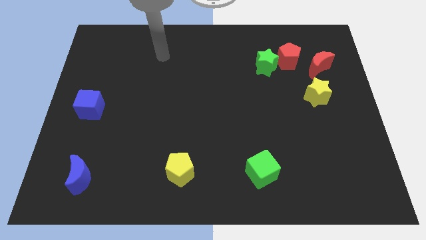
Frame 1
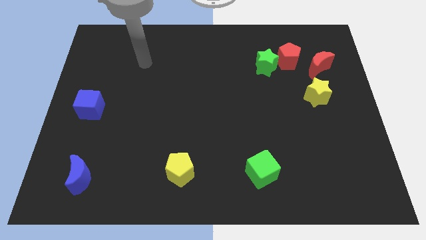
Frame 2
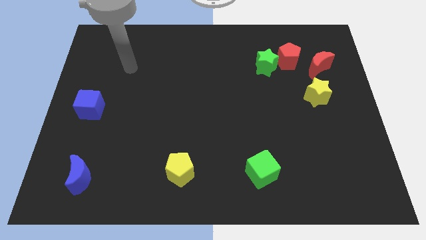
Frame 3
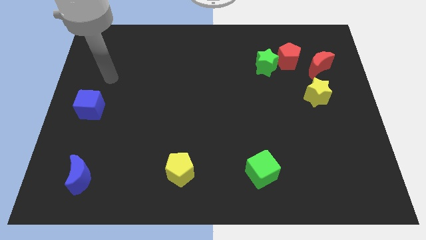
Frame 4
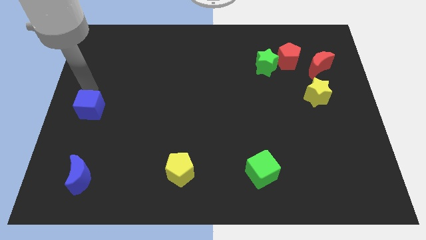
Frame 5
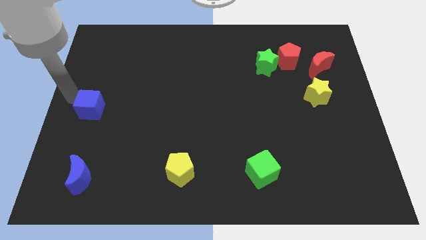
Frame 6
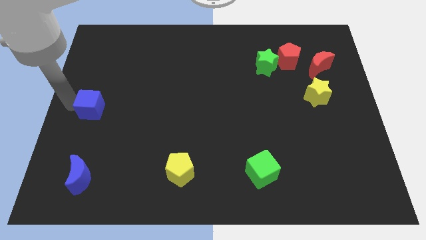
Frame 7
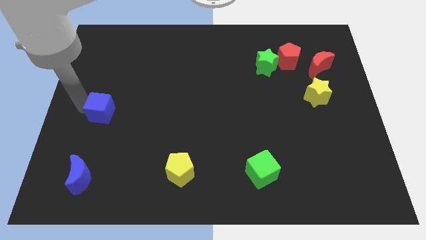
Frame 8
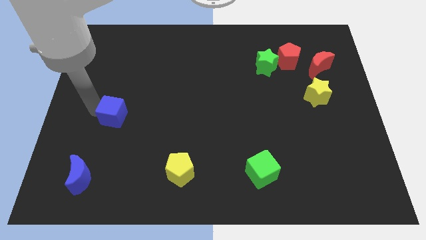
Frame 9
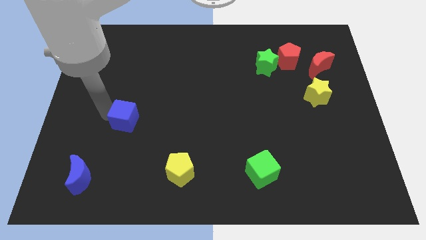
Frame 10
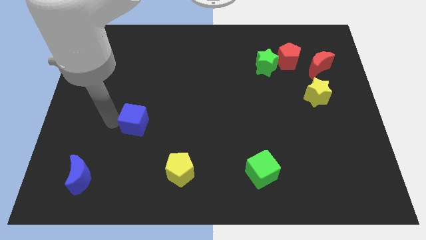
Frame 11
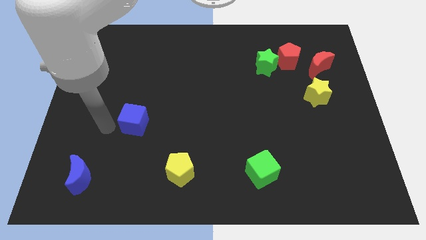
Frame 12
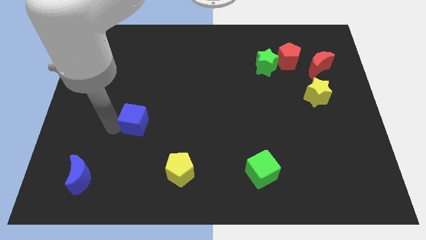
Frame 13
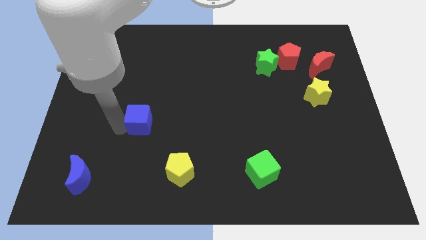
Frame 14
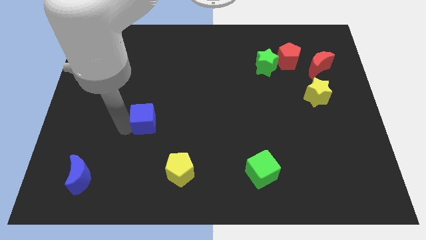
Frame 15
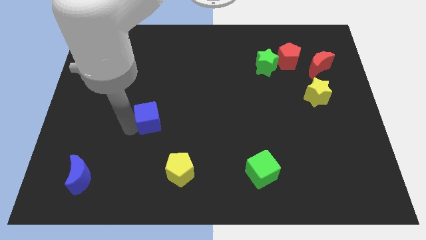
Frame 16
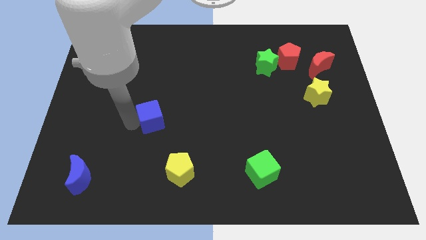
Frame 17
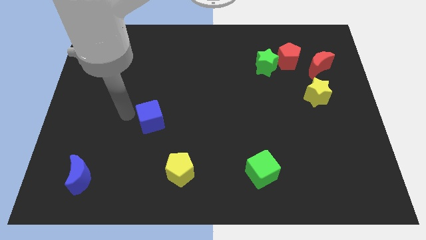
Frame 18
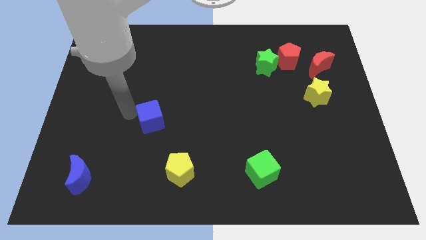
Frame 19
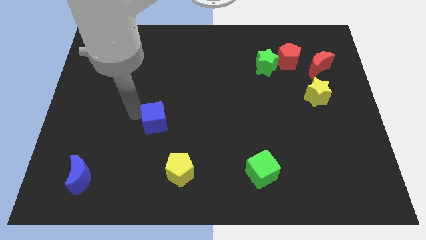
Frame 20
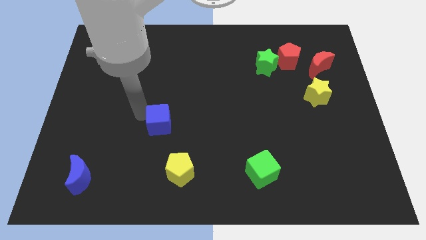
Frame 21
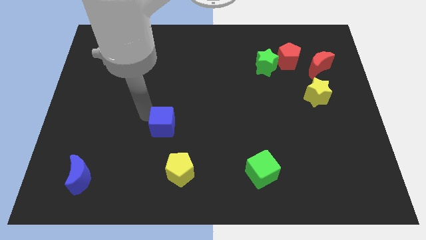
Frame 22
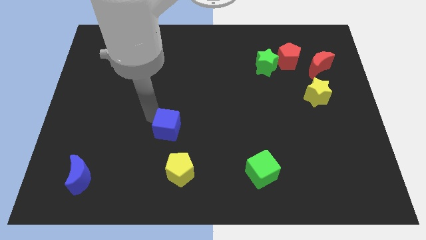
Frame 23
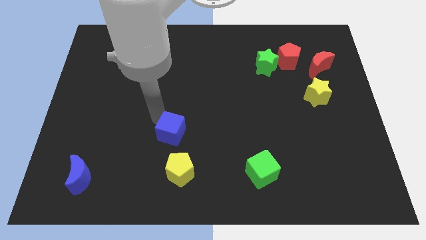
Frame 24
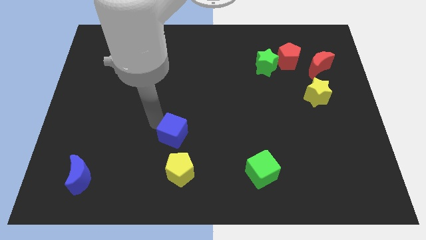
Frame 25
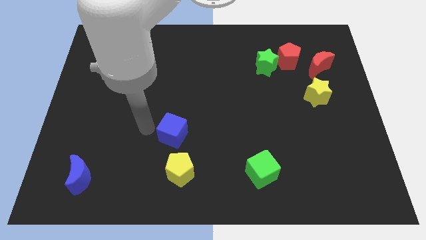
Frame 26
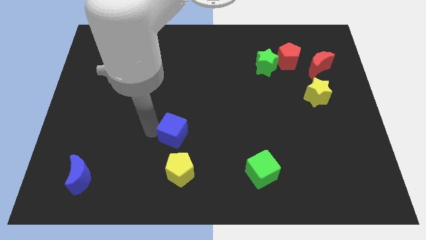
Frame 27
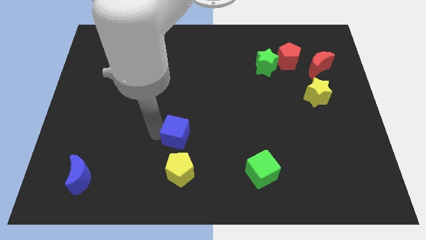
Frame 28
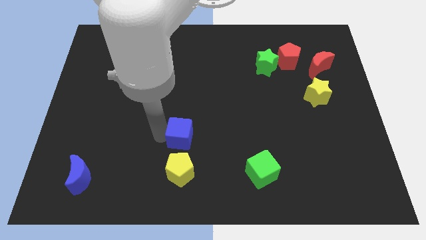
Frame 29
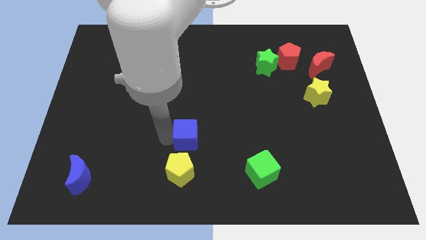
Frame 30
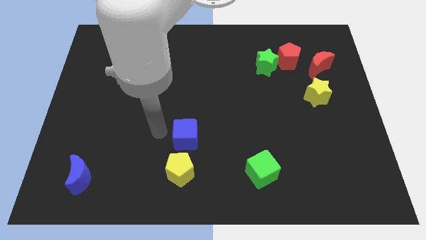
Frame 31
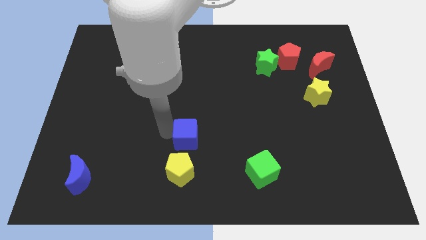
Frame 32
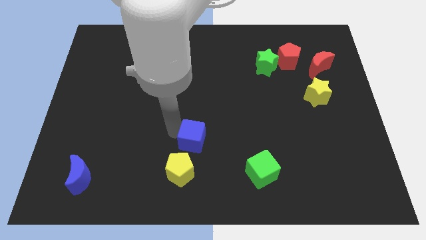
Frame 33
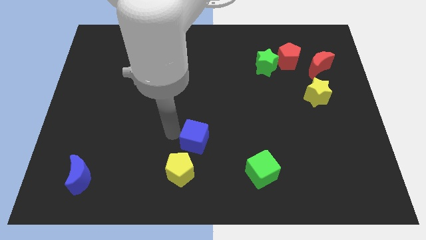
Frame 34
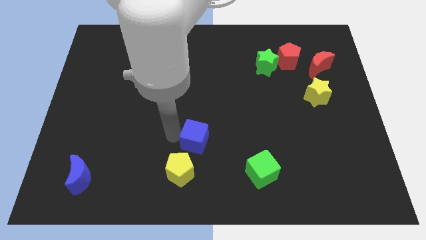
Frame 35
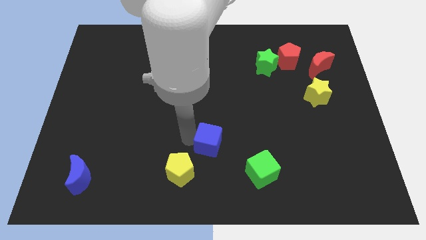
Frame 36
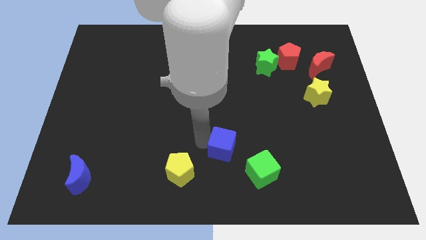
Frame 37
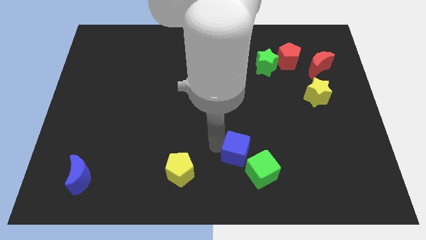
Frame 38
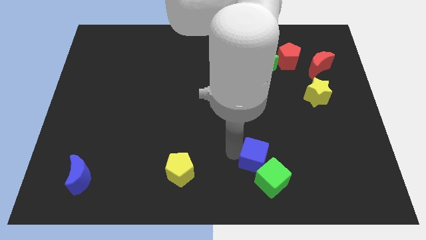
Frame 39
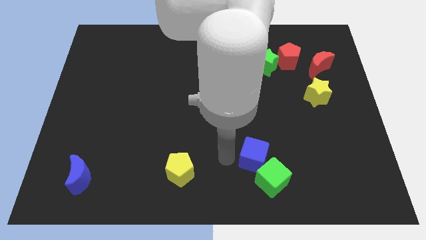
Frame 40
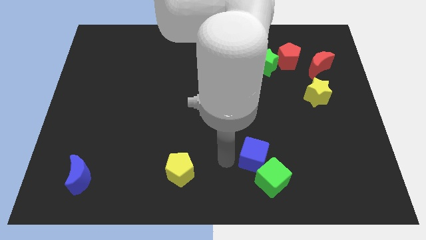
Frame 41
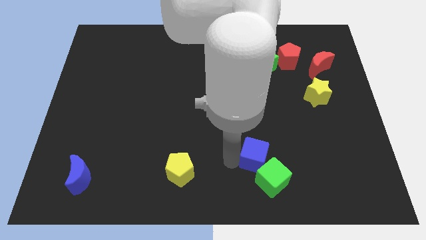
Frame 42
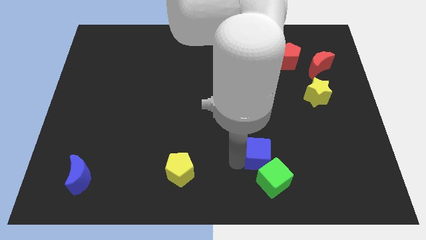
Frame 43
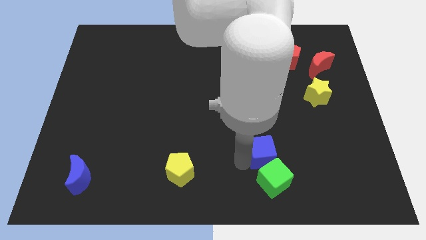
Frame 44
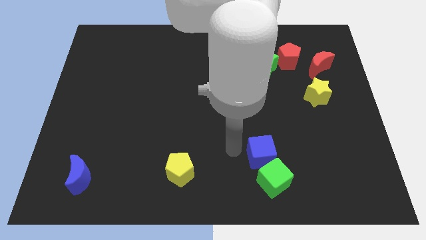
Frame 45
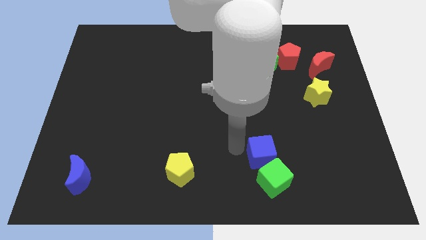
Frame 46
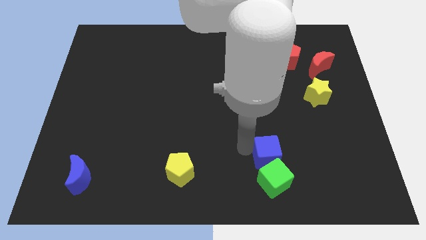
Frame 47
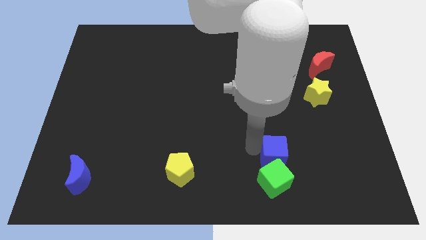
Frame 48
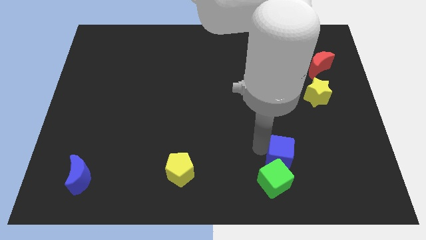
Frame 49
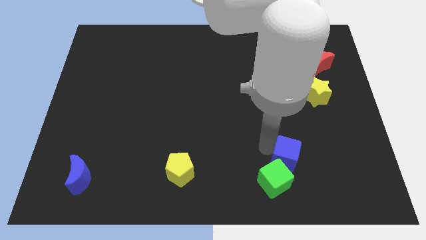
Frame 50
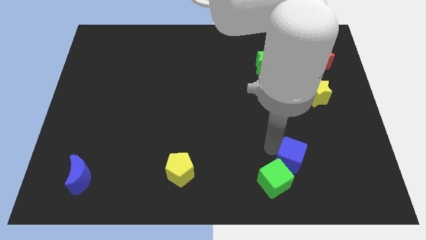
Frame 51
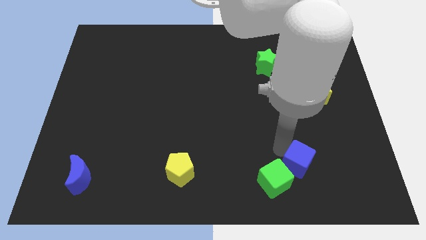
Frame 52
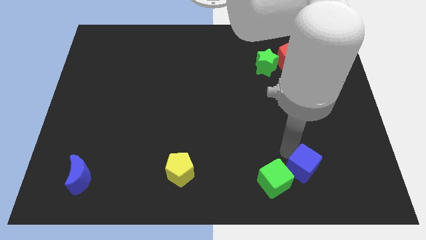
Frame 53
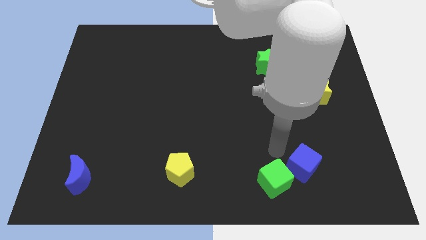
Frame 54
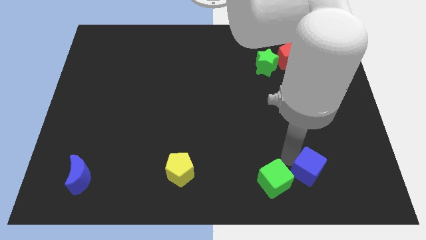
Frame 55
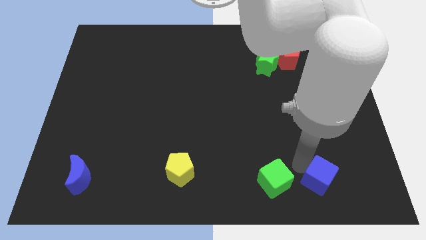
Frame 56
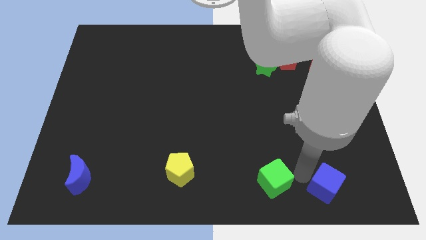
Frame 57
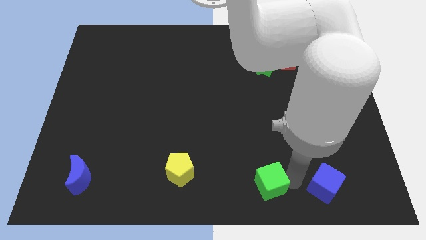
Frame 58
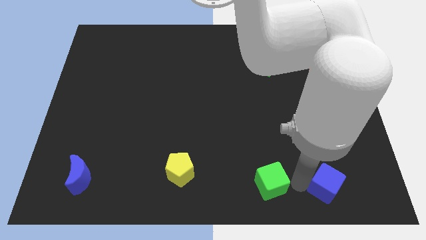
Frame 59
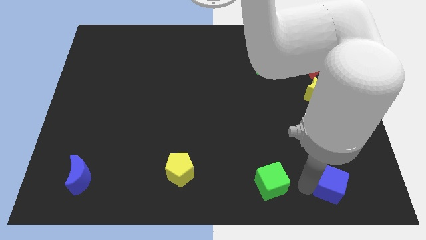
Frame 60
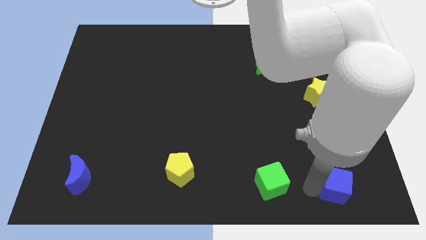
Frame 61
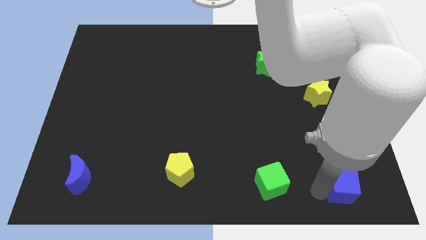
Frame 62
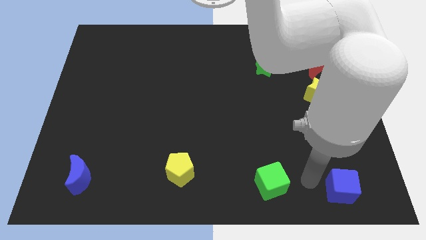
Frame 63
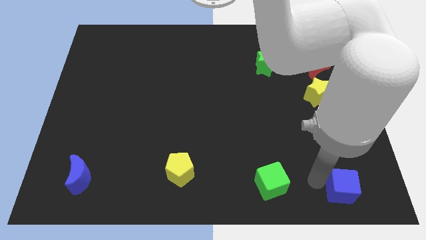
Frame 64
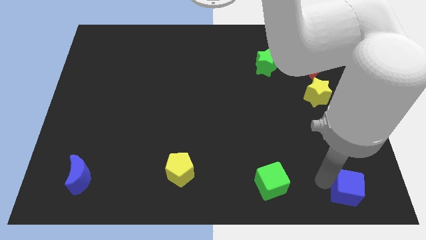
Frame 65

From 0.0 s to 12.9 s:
put the blue cube to the bottom right of the board

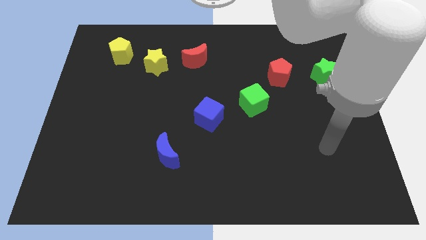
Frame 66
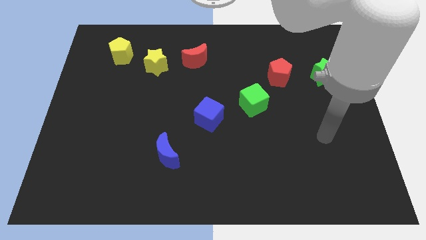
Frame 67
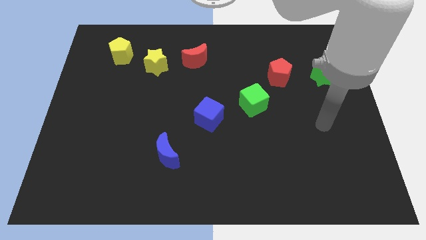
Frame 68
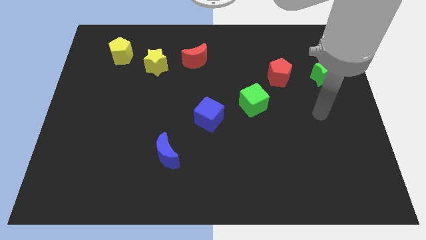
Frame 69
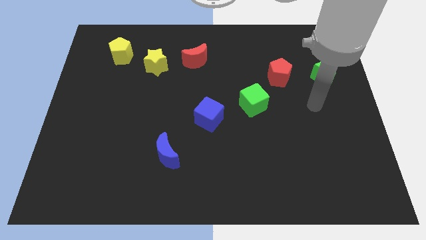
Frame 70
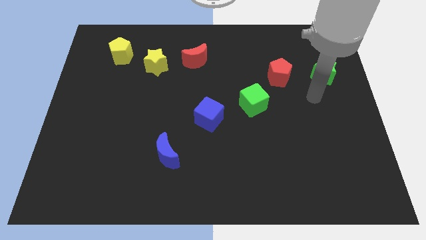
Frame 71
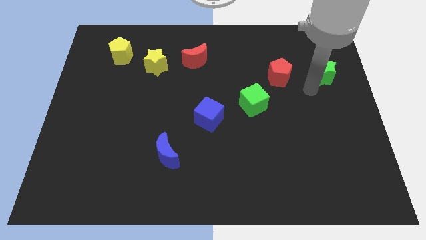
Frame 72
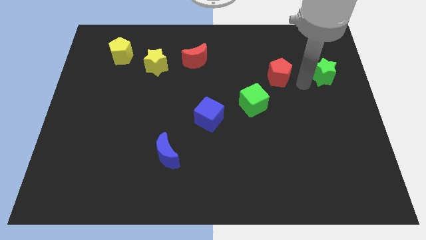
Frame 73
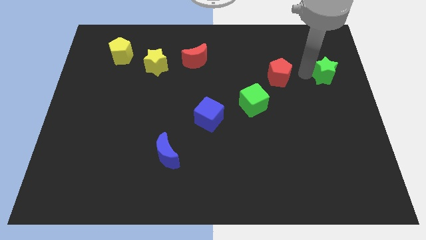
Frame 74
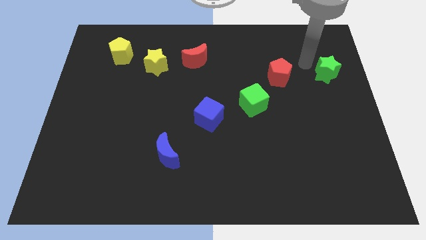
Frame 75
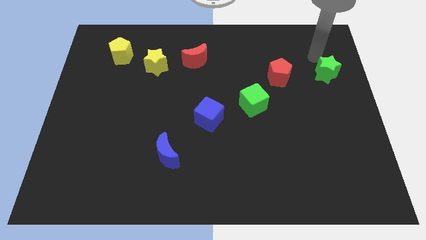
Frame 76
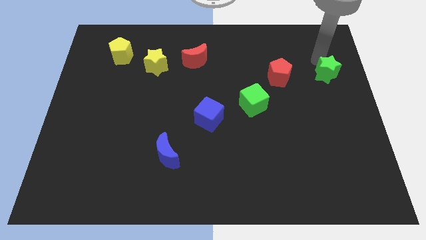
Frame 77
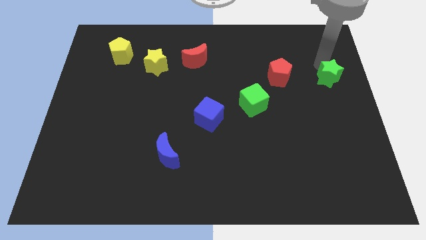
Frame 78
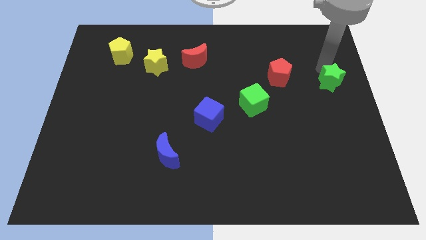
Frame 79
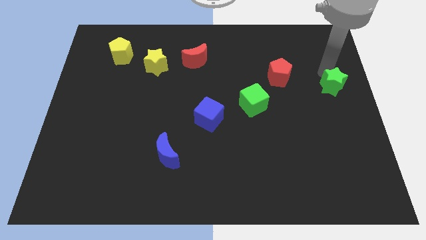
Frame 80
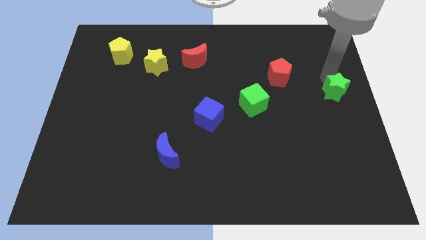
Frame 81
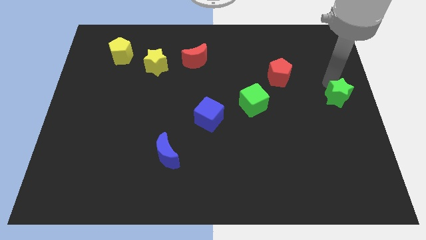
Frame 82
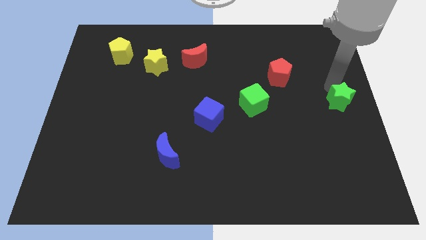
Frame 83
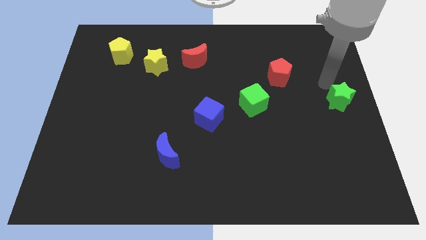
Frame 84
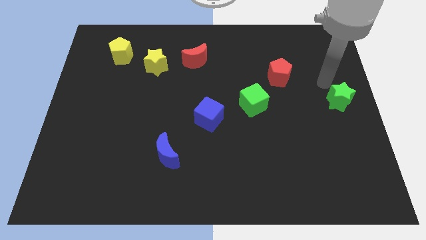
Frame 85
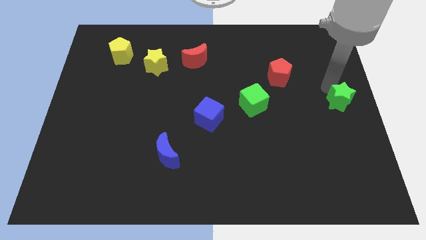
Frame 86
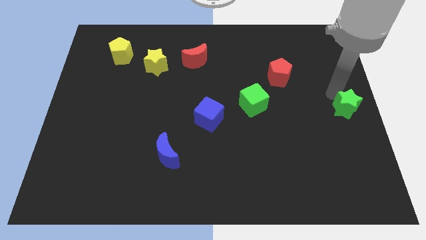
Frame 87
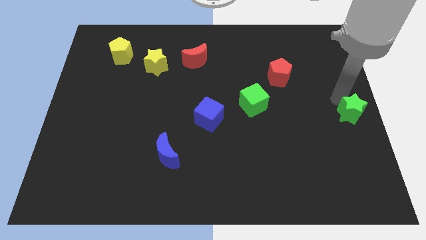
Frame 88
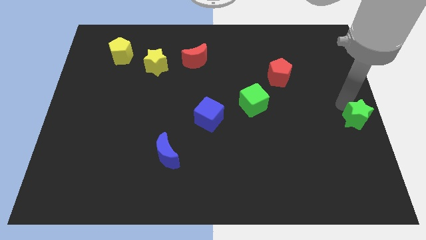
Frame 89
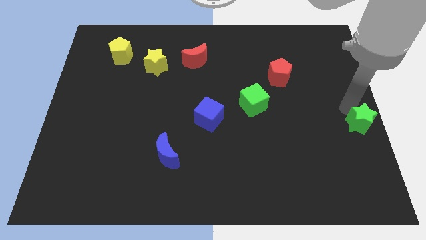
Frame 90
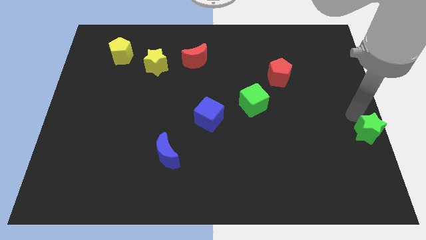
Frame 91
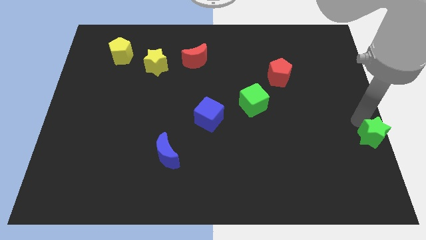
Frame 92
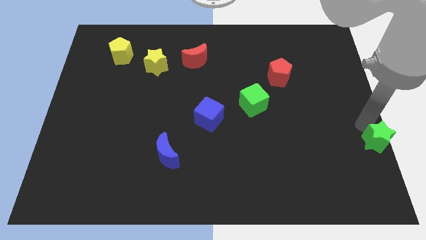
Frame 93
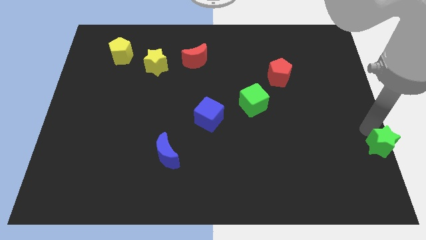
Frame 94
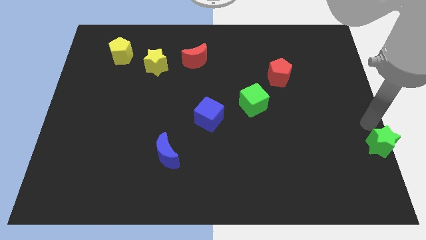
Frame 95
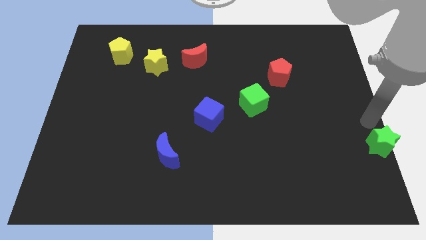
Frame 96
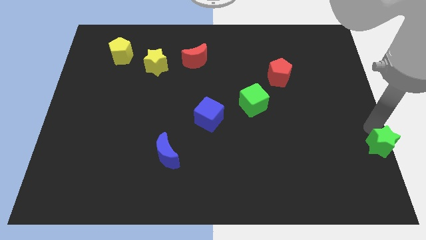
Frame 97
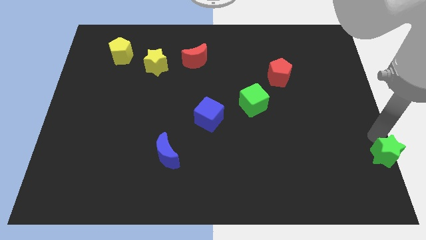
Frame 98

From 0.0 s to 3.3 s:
push the green star to the bottom right of the board
